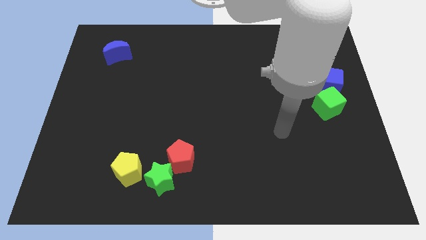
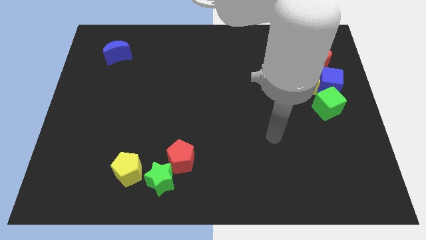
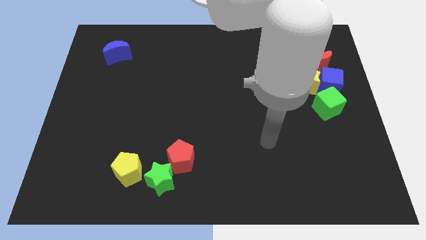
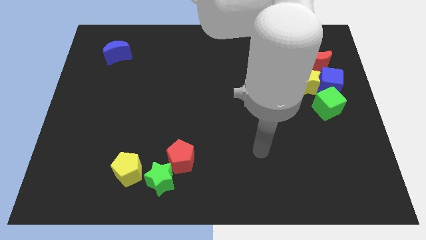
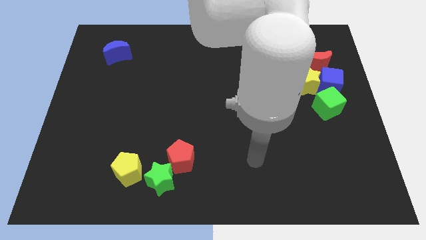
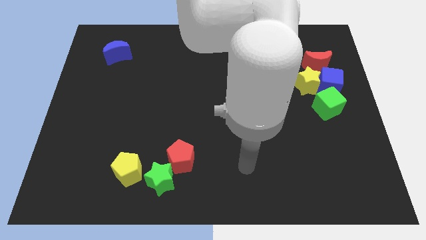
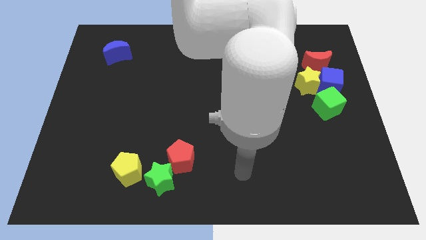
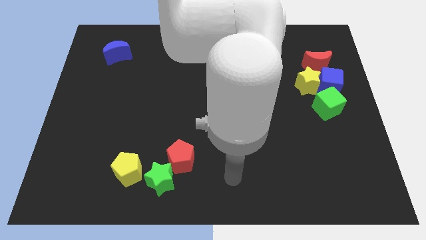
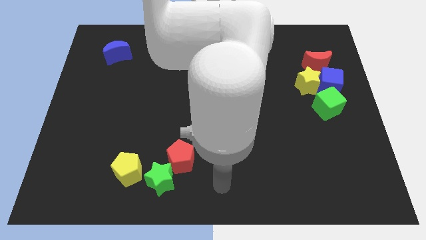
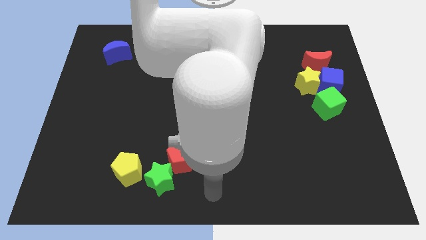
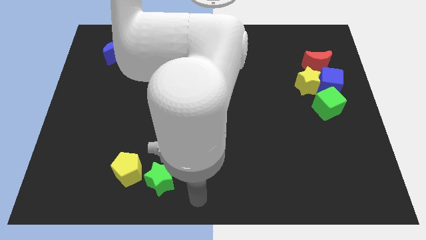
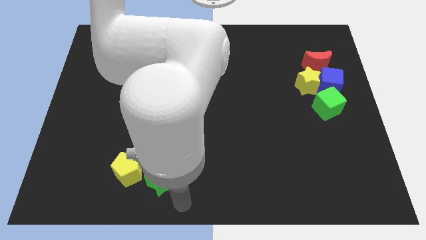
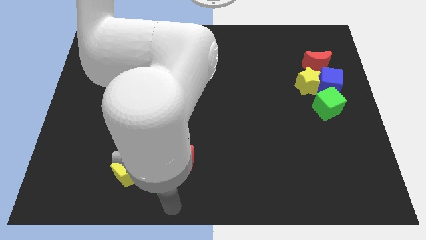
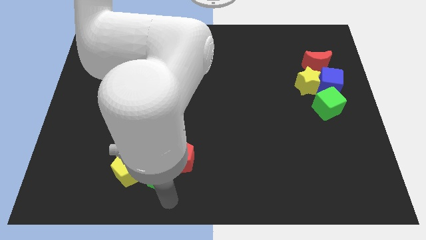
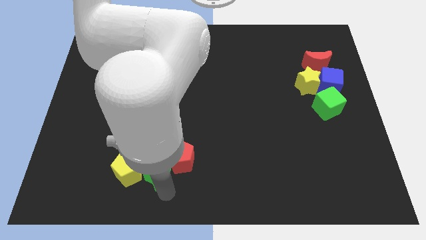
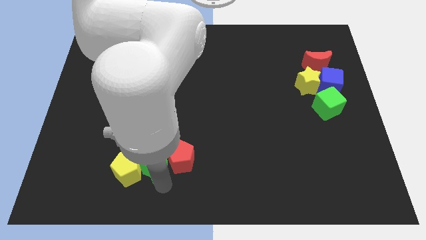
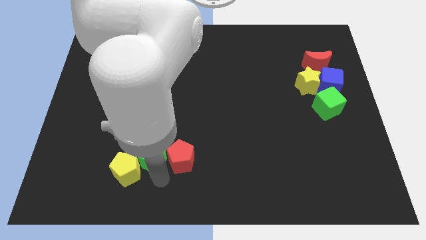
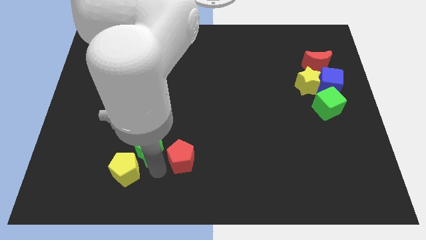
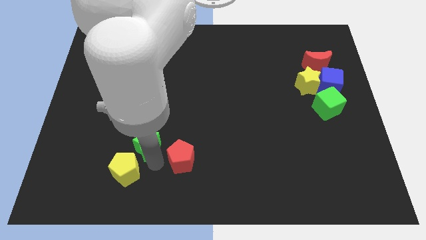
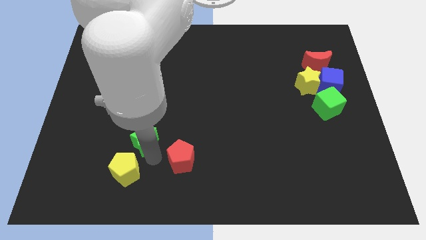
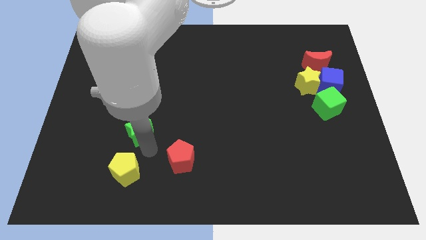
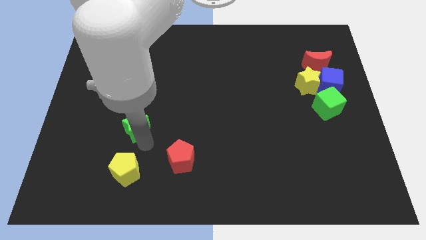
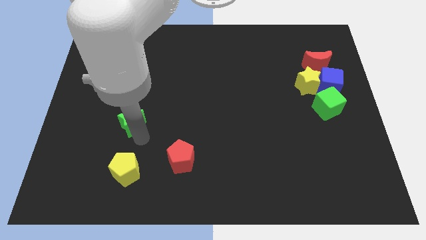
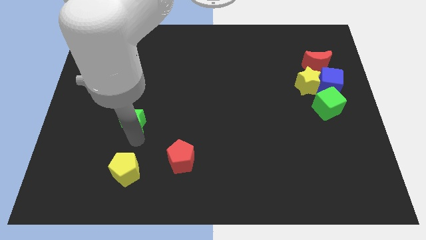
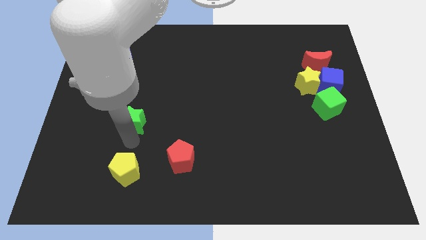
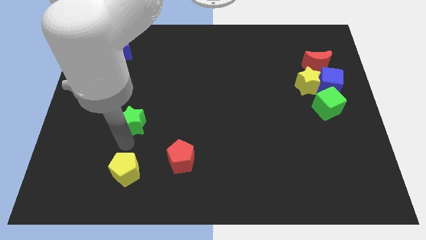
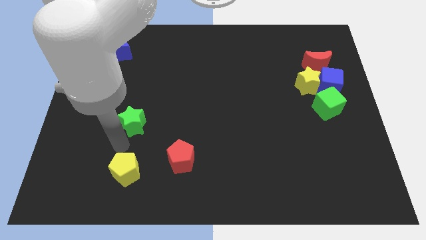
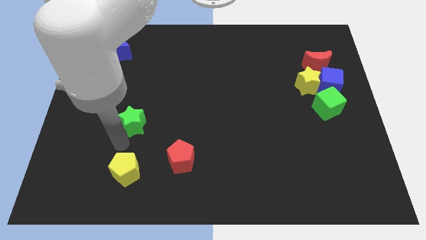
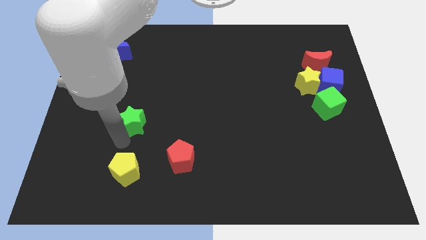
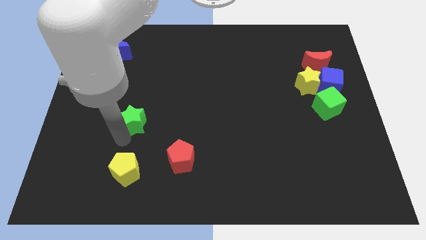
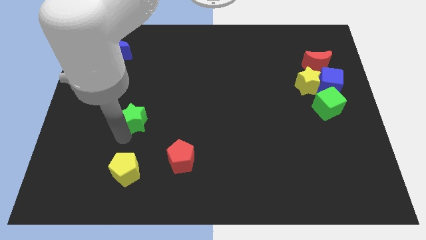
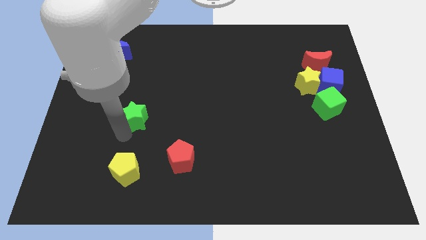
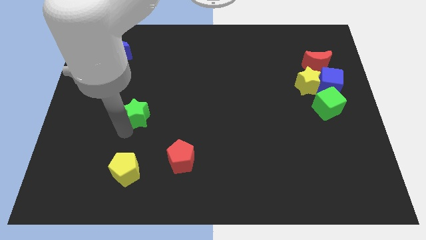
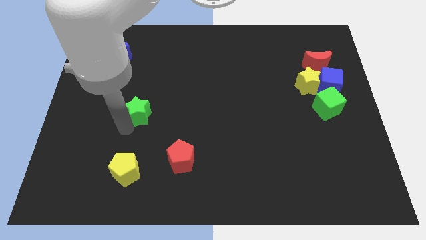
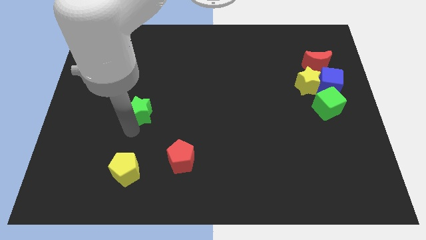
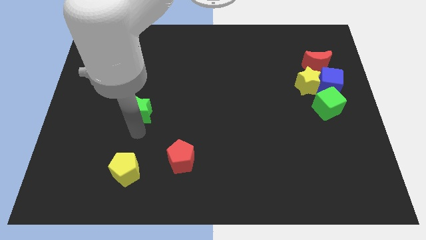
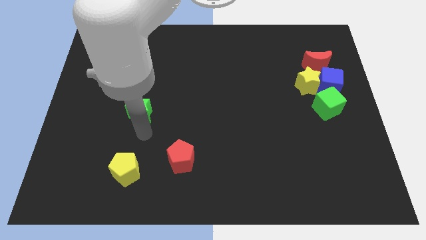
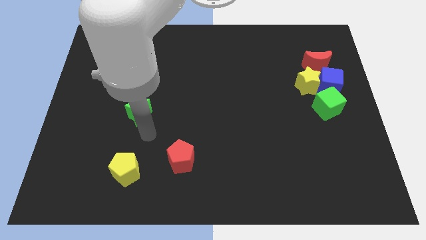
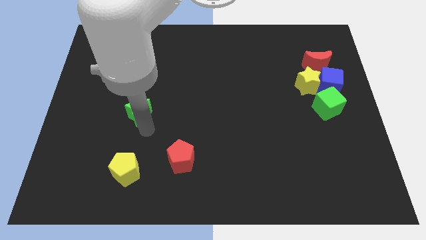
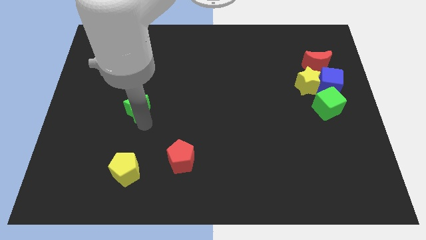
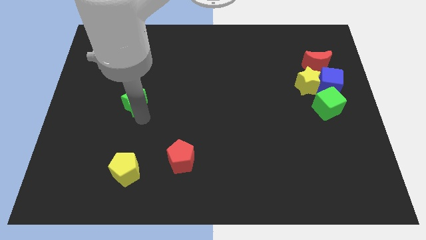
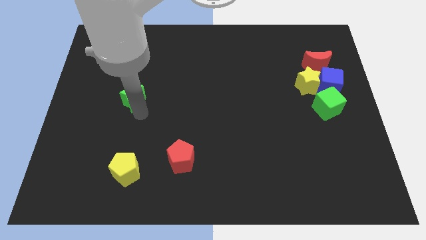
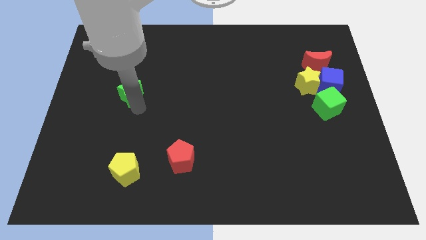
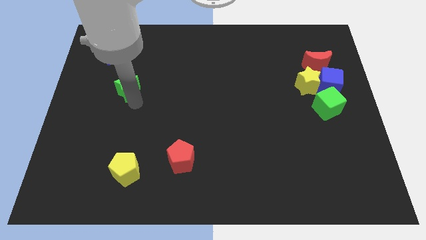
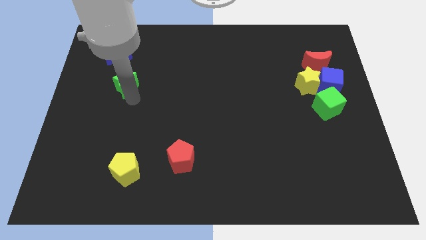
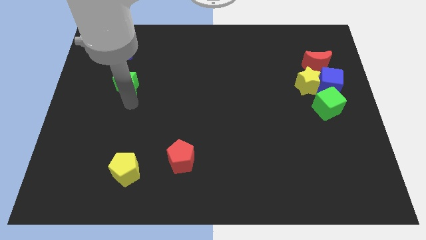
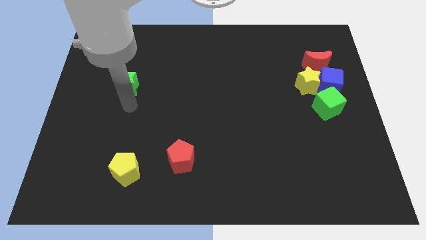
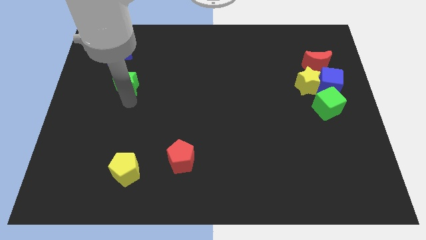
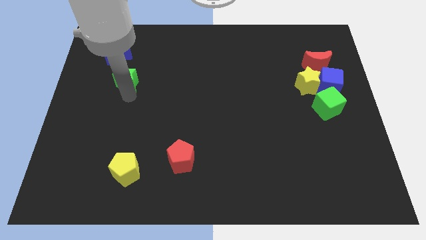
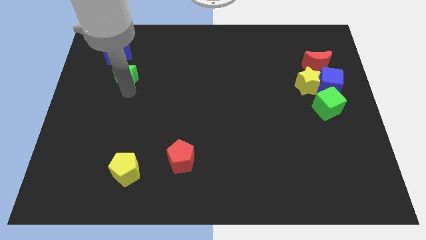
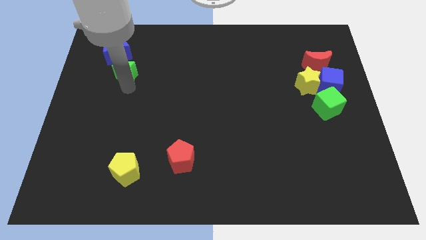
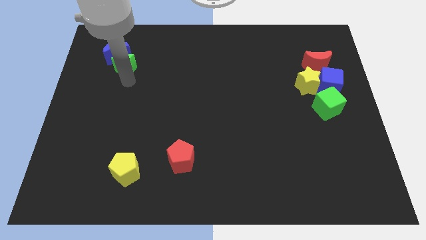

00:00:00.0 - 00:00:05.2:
slide the green star next to the blue moon

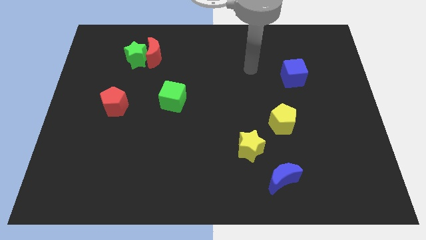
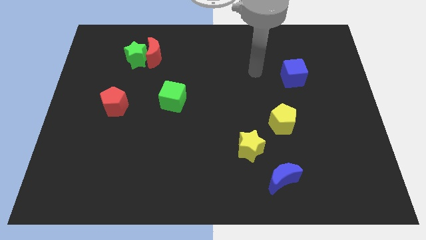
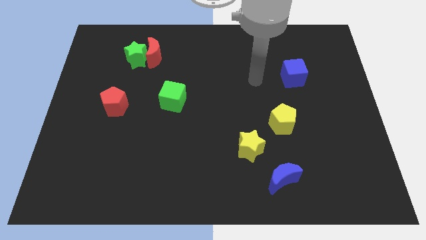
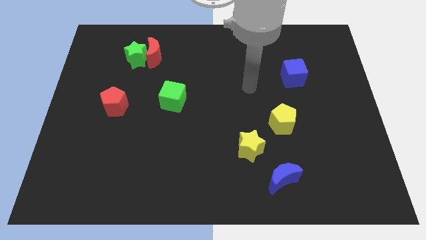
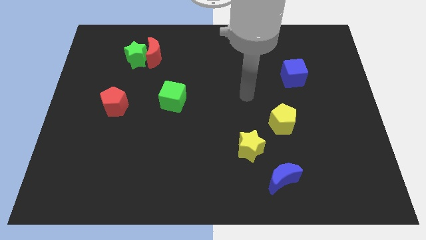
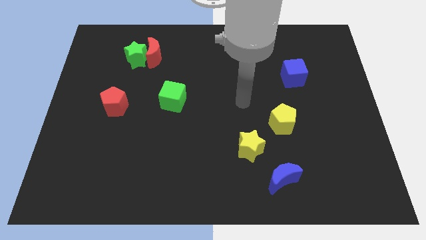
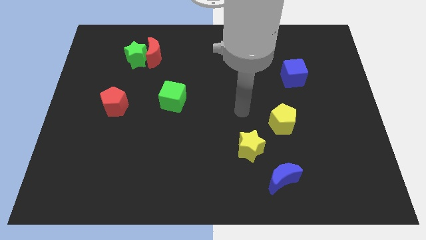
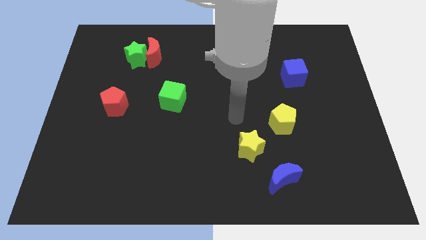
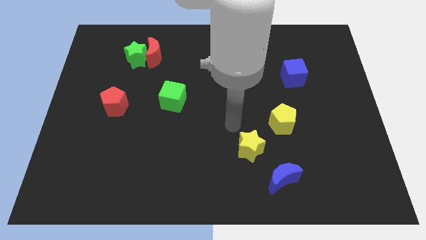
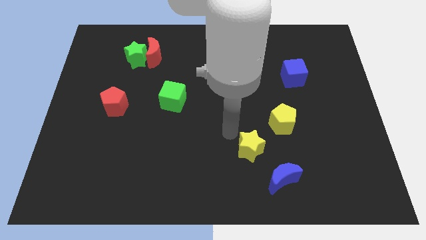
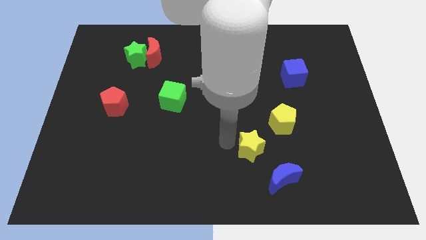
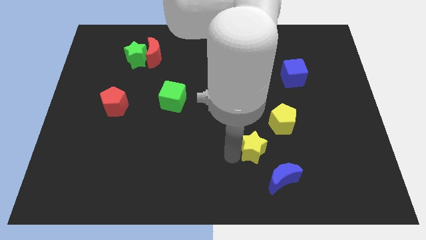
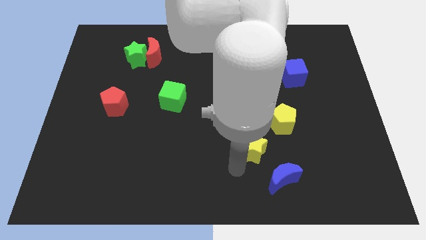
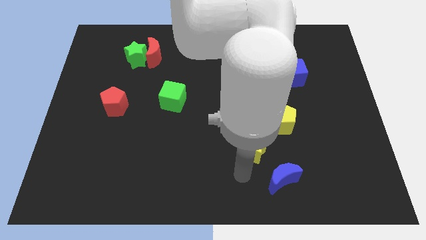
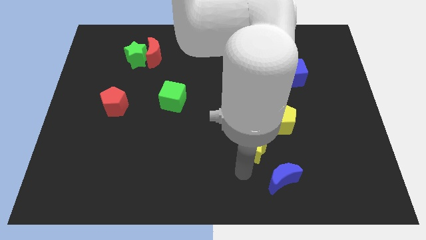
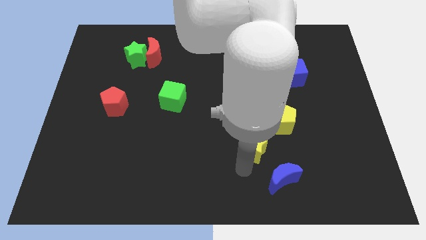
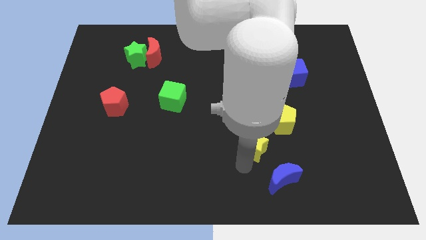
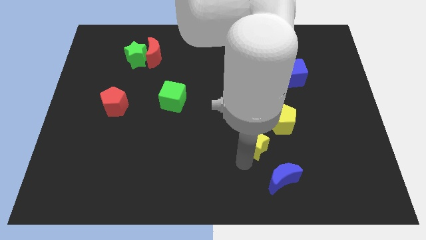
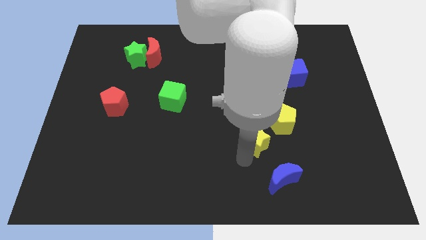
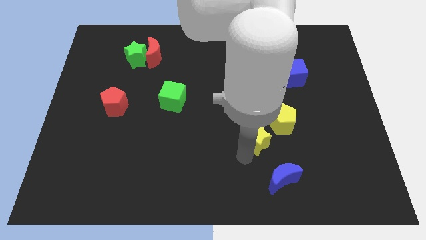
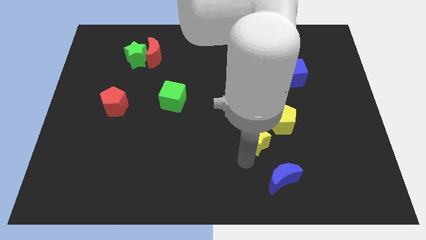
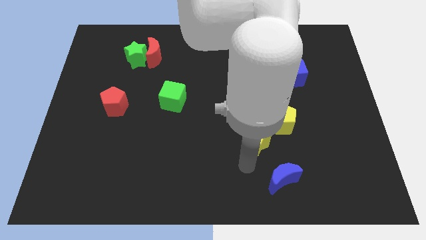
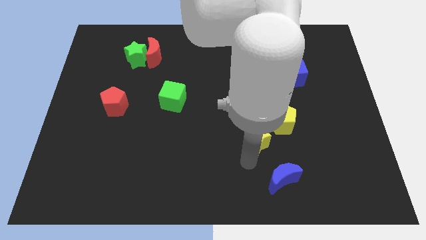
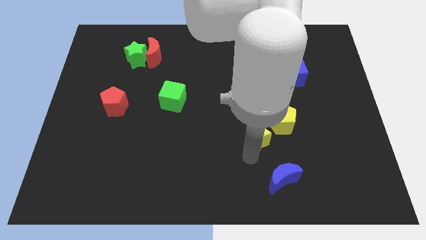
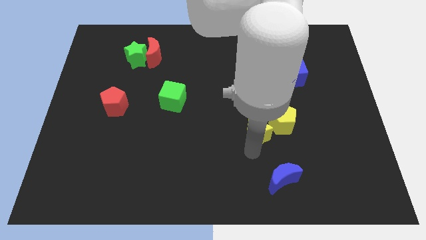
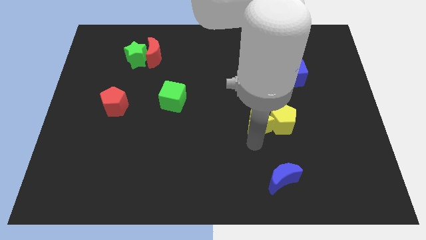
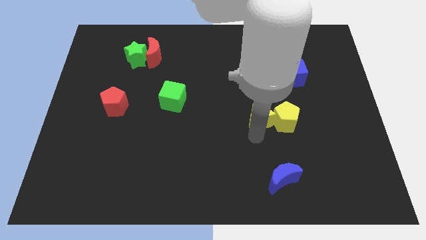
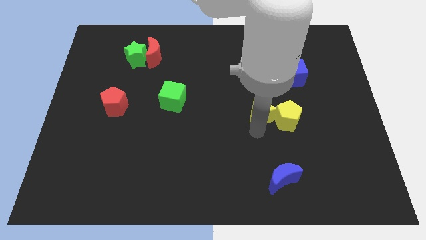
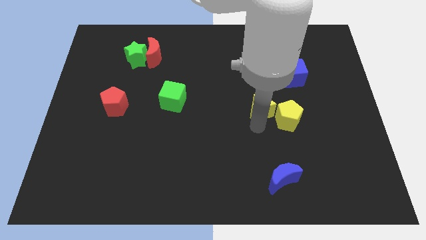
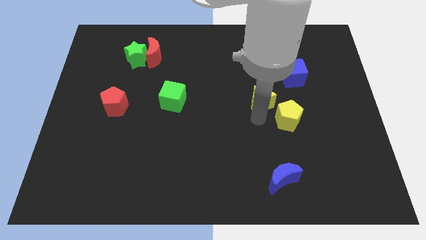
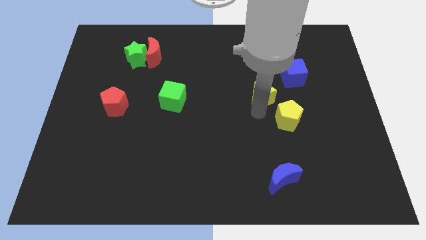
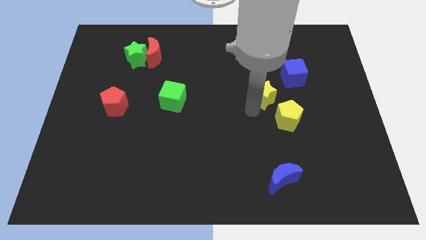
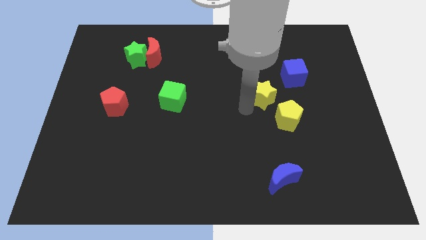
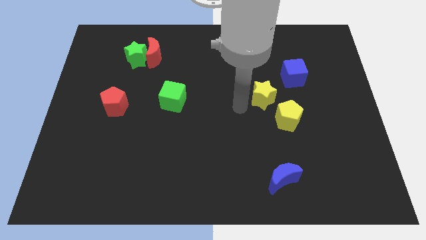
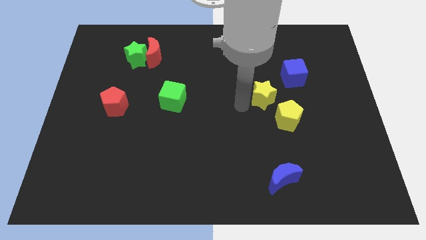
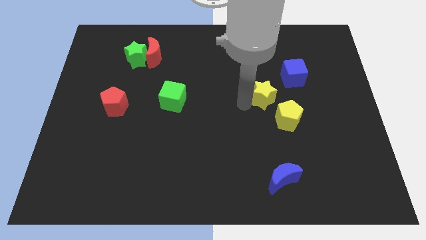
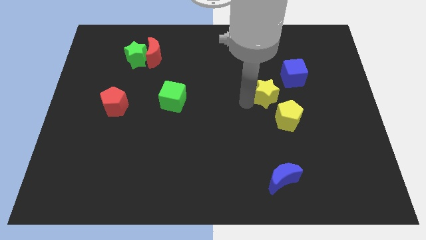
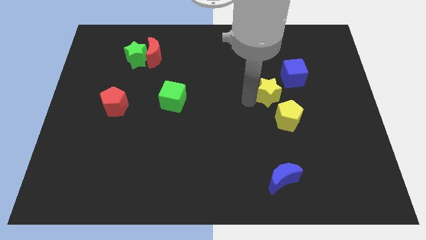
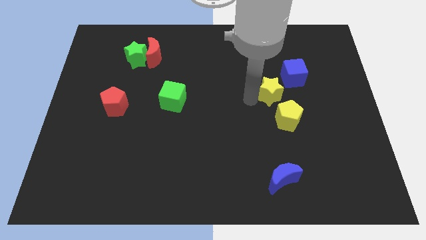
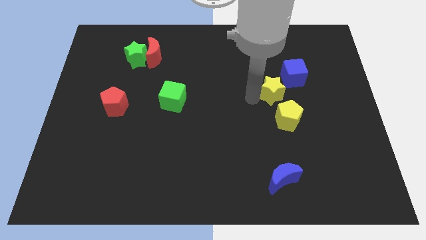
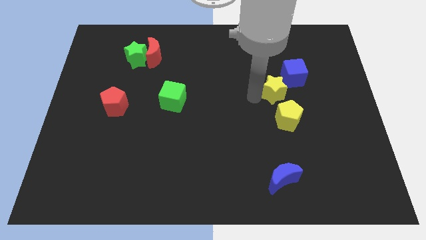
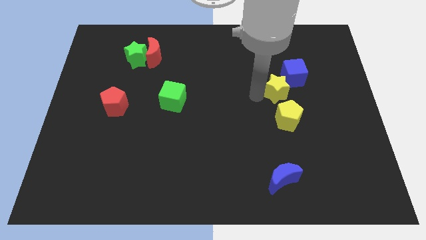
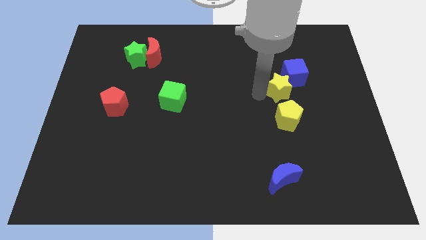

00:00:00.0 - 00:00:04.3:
push the yellow star close to the blue cube
